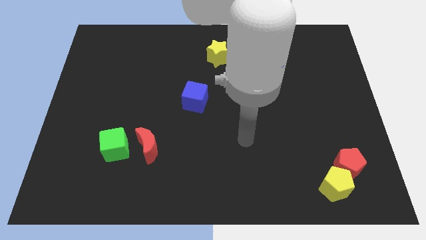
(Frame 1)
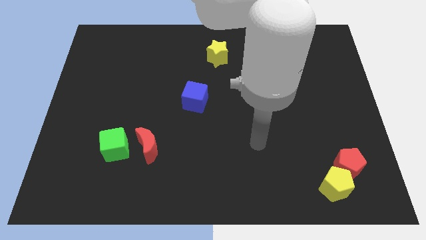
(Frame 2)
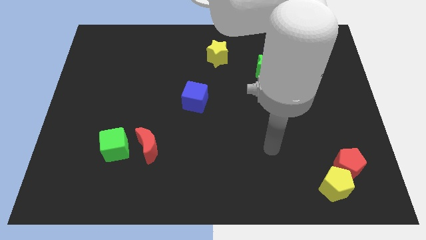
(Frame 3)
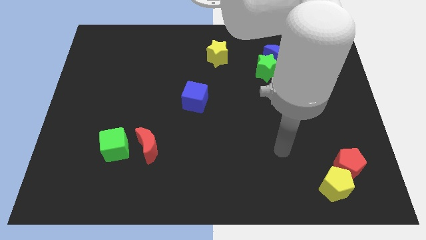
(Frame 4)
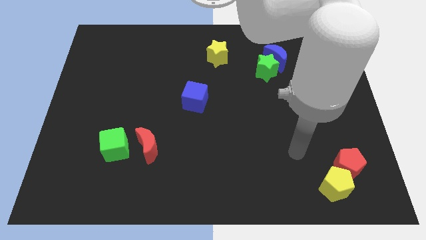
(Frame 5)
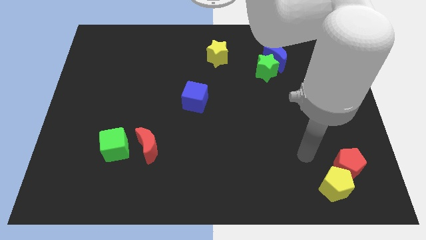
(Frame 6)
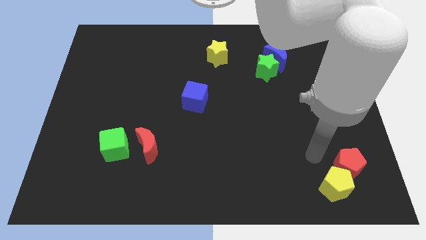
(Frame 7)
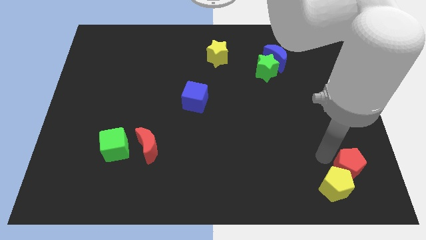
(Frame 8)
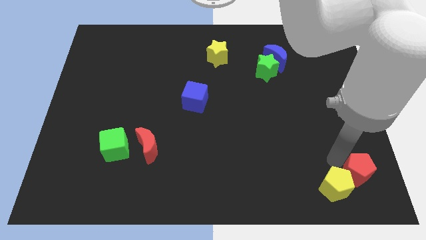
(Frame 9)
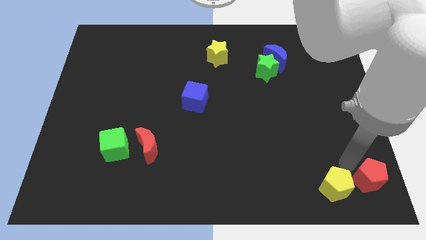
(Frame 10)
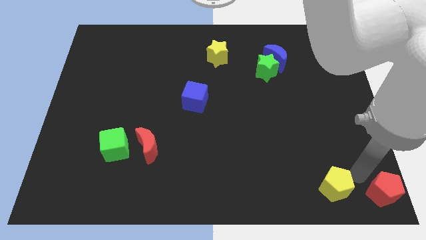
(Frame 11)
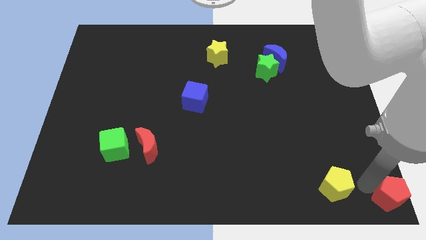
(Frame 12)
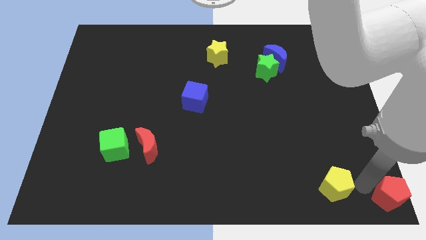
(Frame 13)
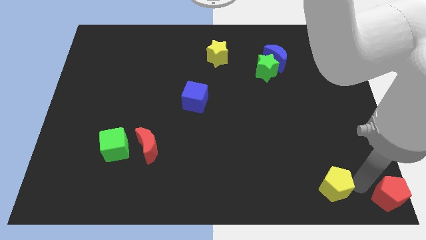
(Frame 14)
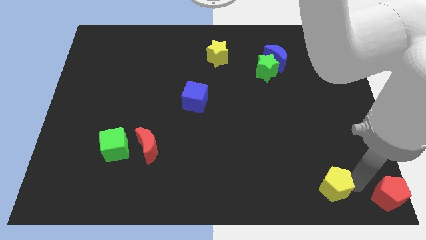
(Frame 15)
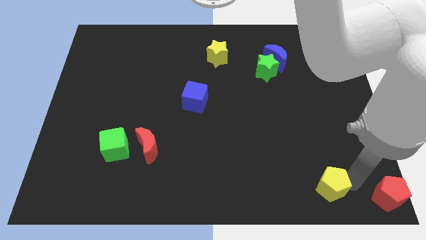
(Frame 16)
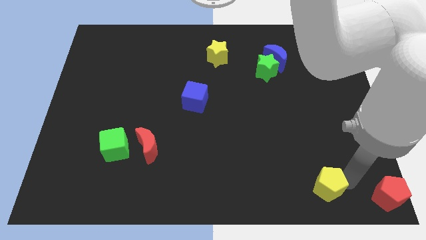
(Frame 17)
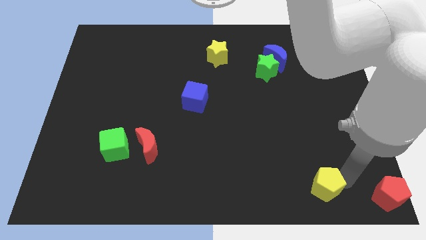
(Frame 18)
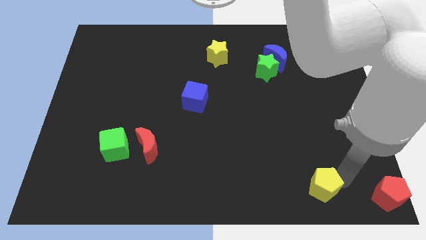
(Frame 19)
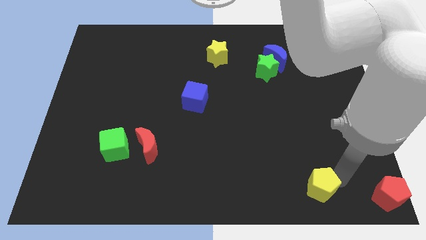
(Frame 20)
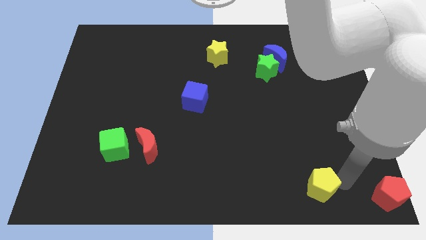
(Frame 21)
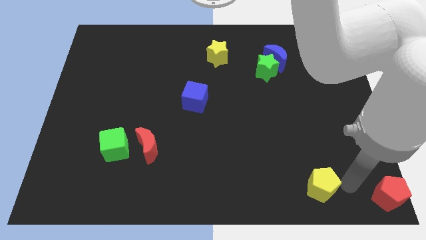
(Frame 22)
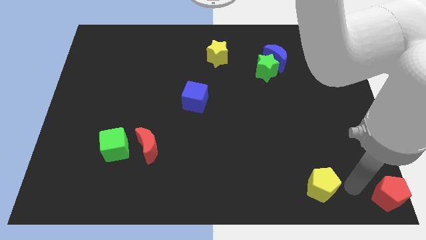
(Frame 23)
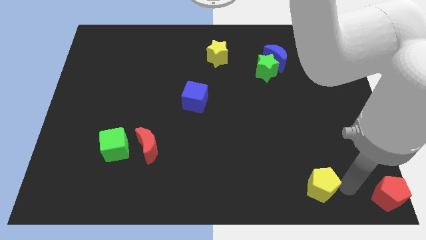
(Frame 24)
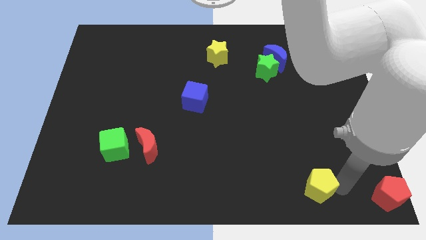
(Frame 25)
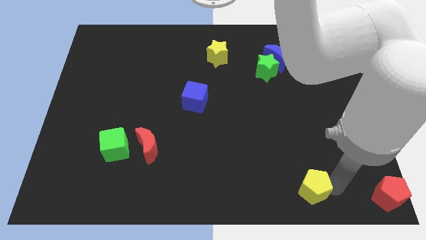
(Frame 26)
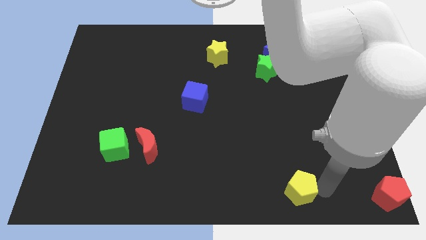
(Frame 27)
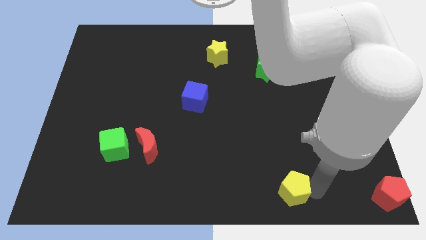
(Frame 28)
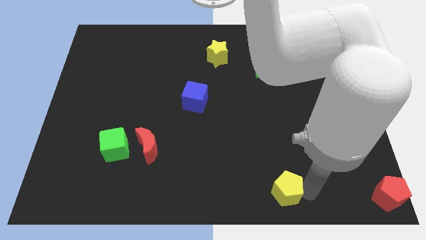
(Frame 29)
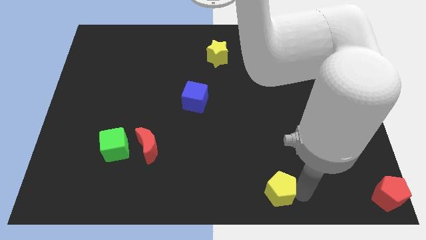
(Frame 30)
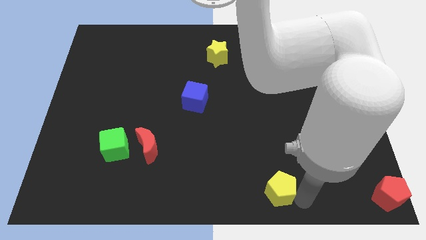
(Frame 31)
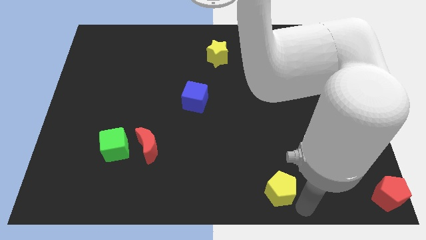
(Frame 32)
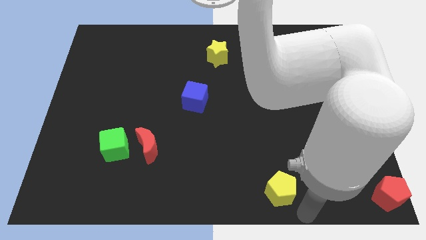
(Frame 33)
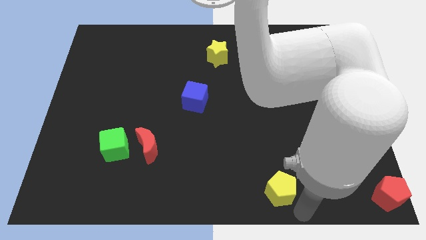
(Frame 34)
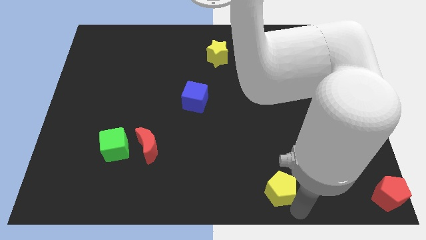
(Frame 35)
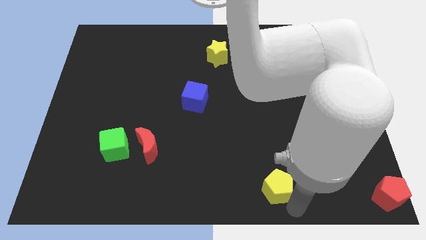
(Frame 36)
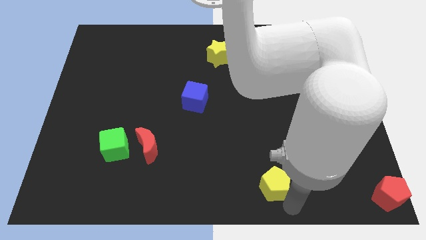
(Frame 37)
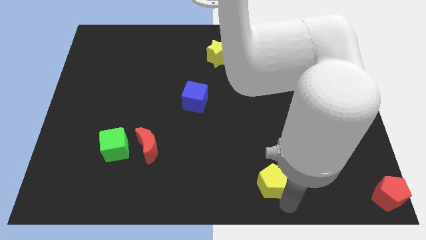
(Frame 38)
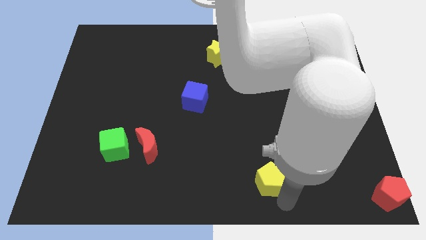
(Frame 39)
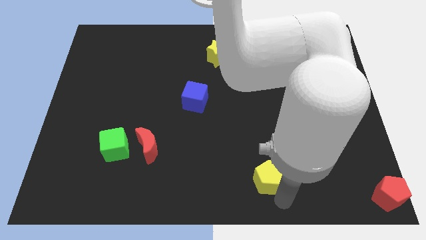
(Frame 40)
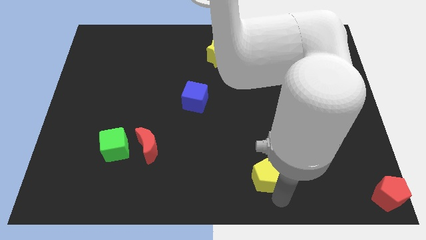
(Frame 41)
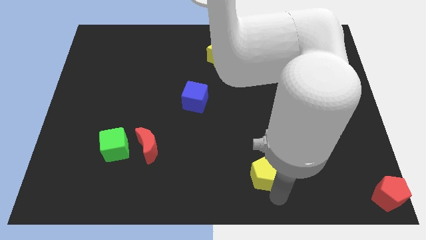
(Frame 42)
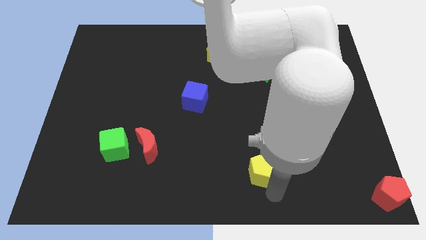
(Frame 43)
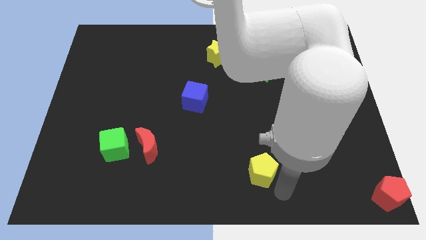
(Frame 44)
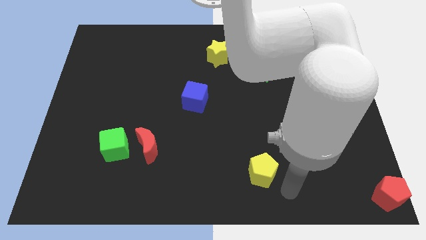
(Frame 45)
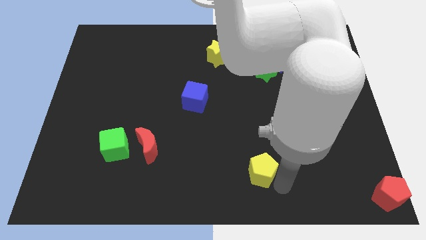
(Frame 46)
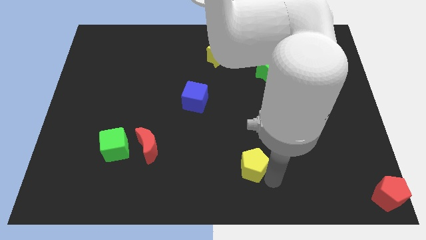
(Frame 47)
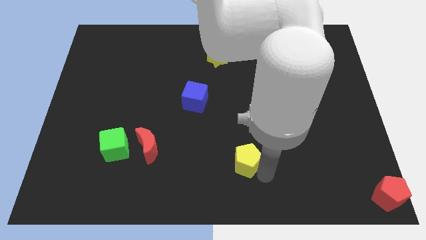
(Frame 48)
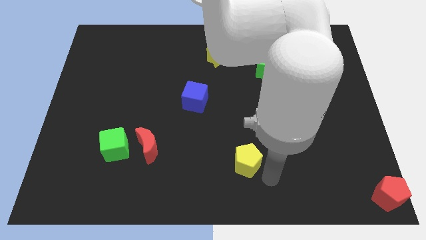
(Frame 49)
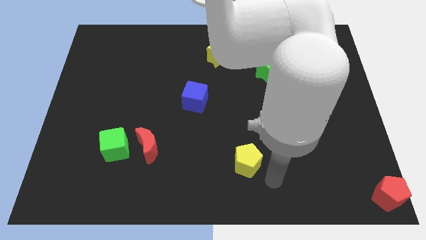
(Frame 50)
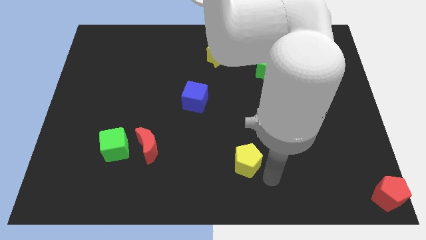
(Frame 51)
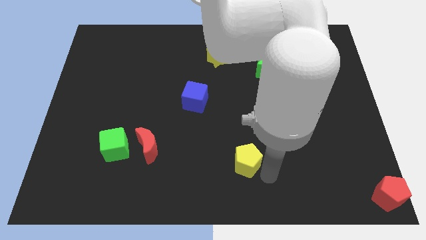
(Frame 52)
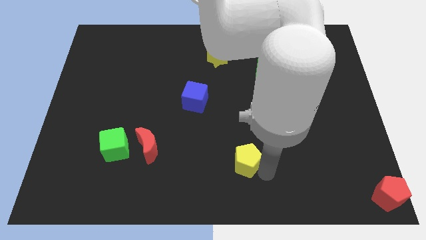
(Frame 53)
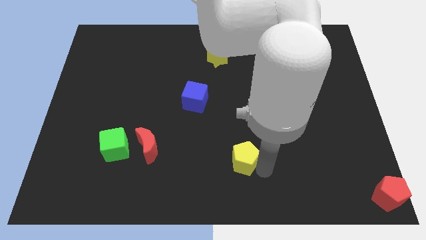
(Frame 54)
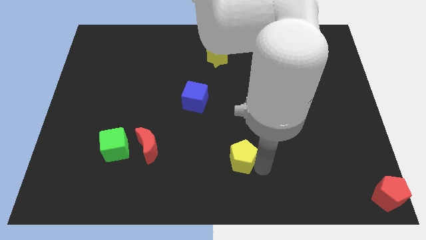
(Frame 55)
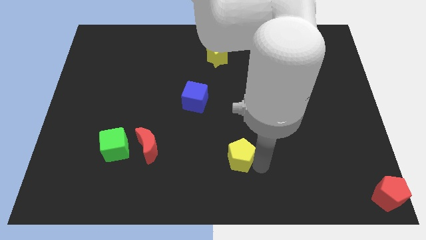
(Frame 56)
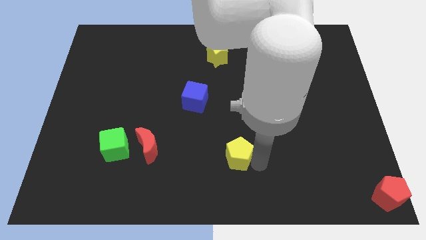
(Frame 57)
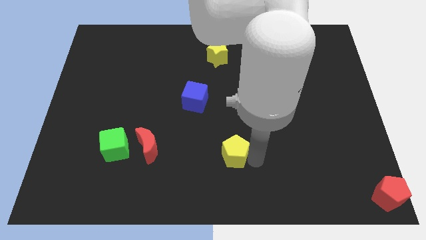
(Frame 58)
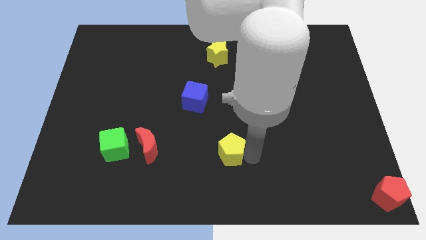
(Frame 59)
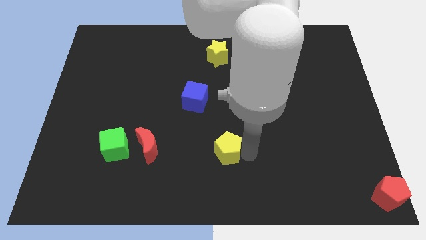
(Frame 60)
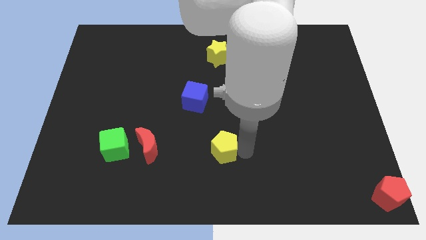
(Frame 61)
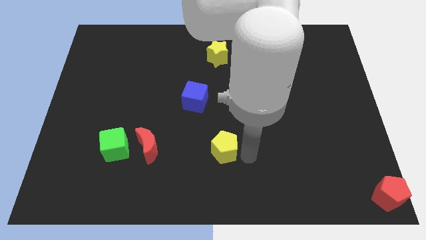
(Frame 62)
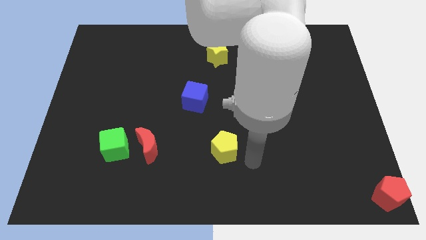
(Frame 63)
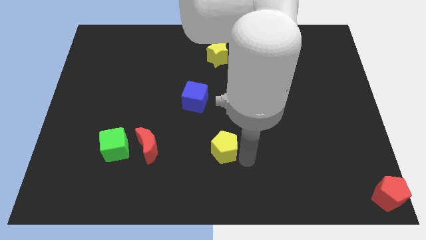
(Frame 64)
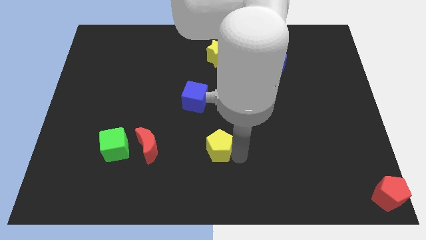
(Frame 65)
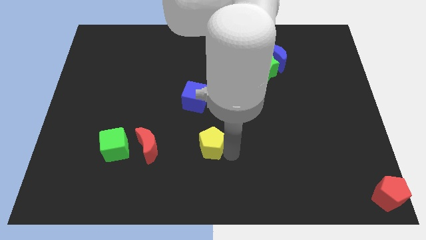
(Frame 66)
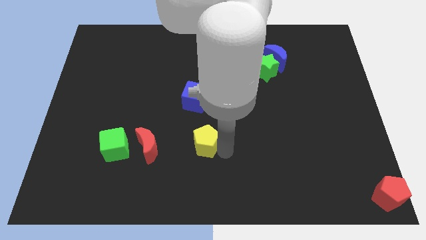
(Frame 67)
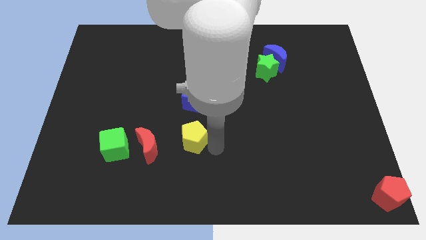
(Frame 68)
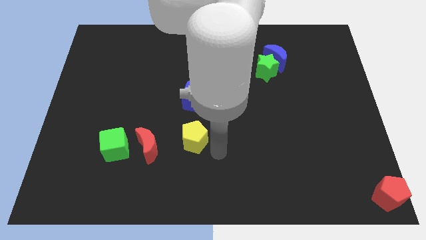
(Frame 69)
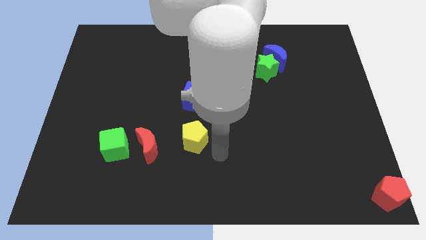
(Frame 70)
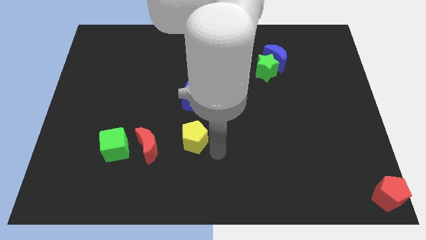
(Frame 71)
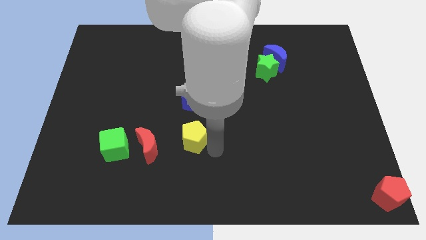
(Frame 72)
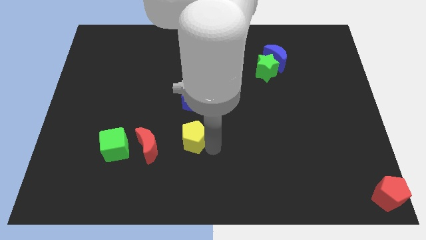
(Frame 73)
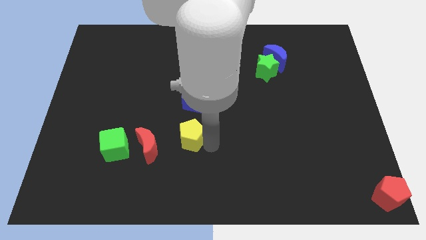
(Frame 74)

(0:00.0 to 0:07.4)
put the yellow pentagon to the top right of the red moon

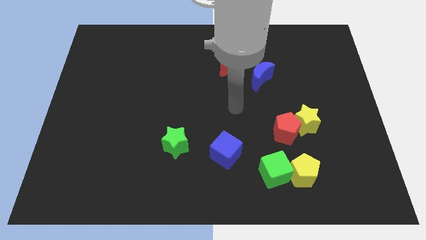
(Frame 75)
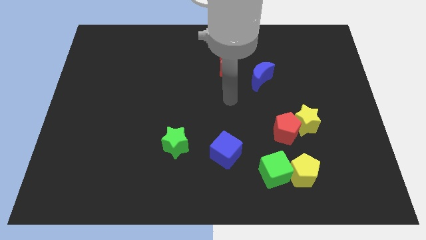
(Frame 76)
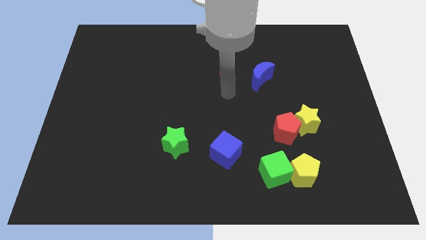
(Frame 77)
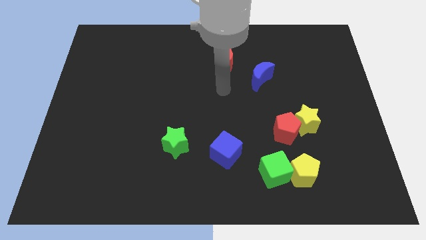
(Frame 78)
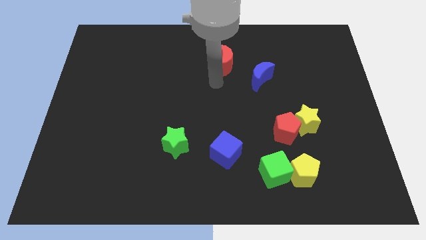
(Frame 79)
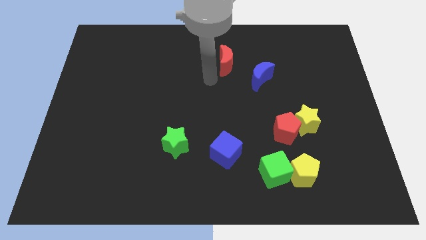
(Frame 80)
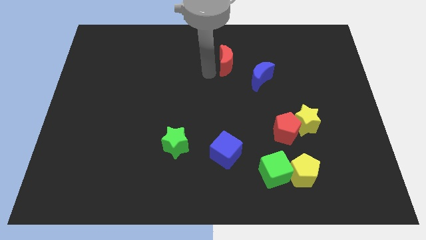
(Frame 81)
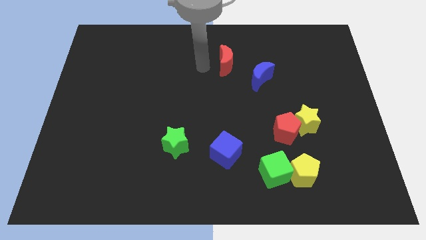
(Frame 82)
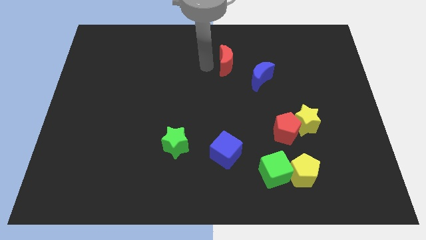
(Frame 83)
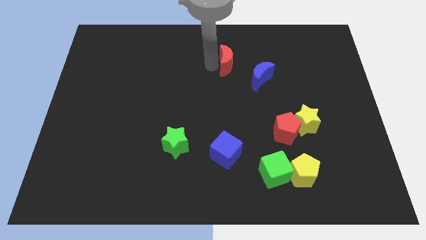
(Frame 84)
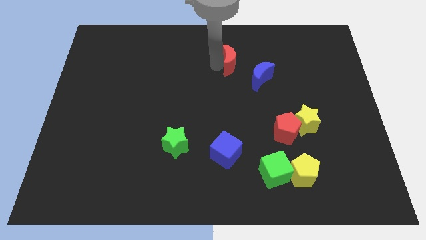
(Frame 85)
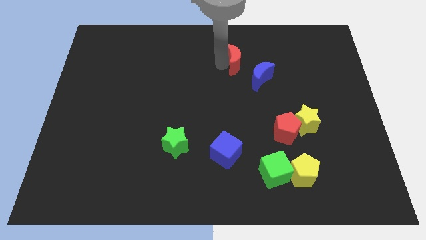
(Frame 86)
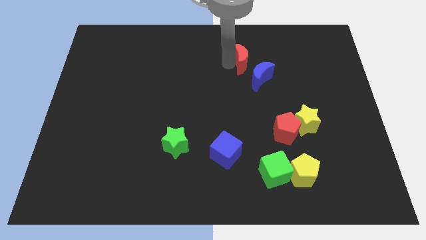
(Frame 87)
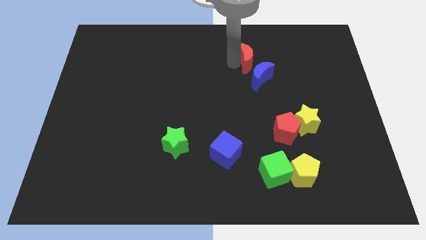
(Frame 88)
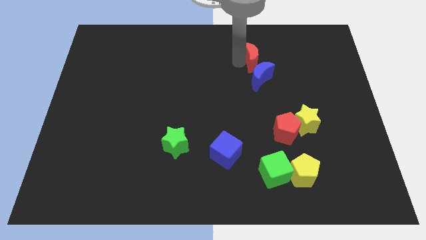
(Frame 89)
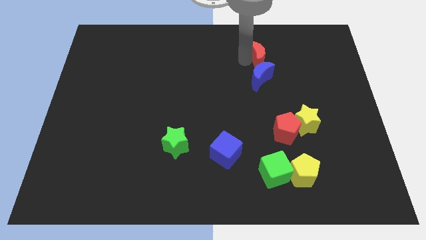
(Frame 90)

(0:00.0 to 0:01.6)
push the red moon diagonally up and to the right of the blue moon
